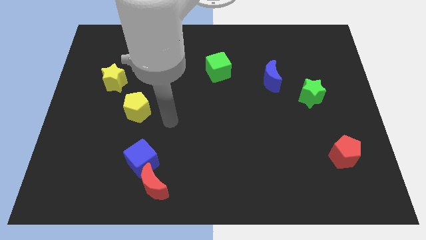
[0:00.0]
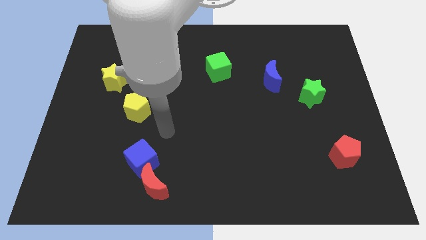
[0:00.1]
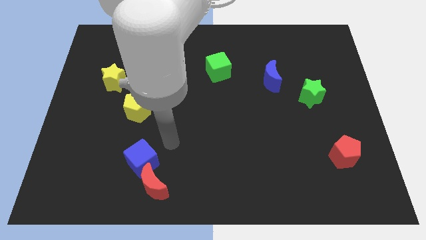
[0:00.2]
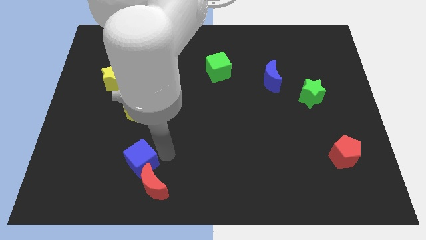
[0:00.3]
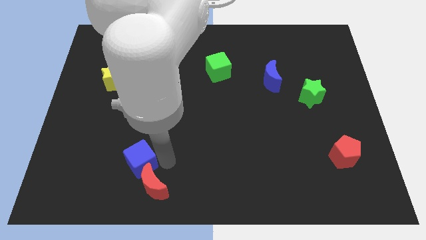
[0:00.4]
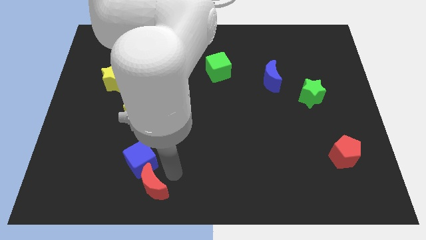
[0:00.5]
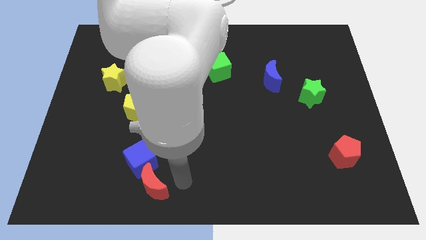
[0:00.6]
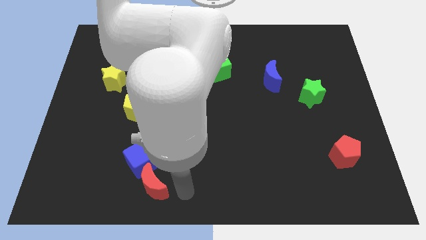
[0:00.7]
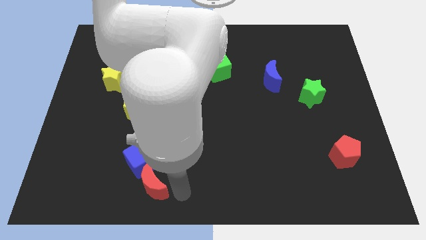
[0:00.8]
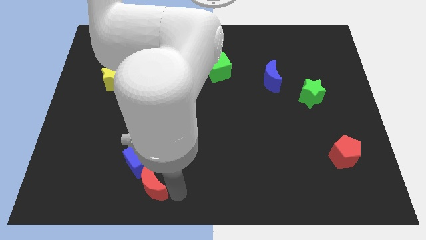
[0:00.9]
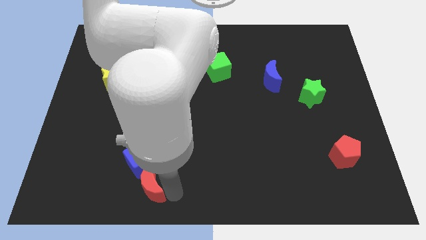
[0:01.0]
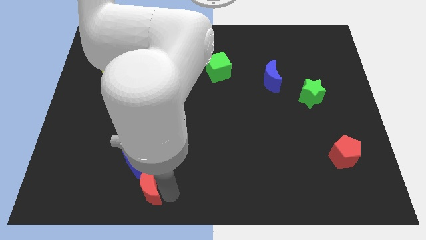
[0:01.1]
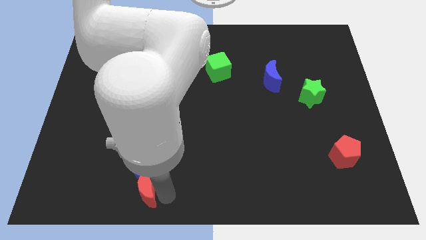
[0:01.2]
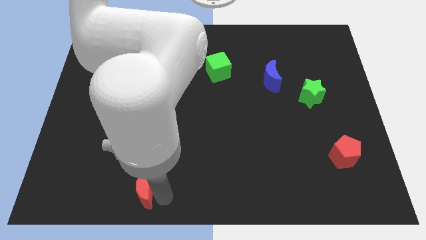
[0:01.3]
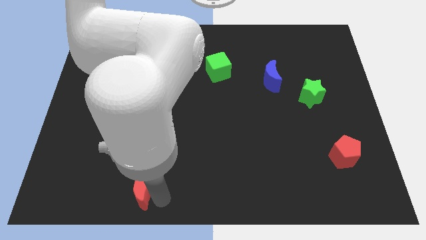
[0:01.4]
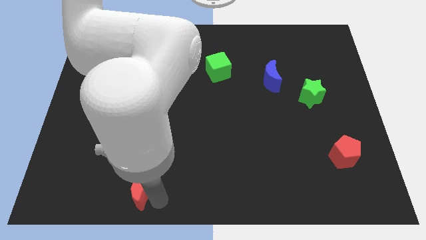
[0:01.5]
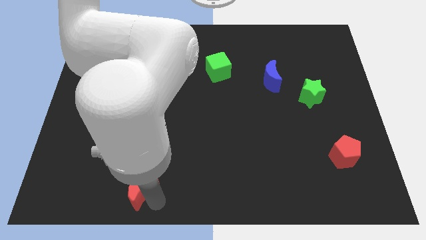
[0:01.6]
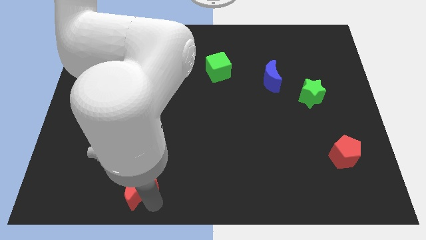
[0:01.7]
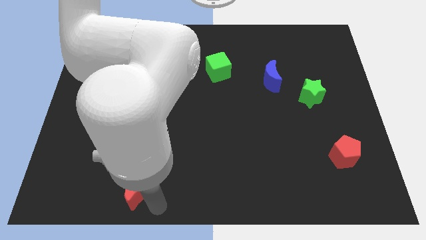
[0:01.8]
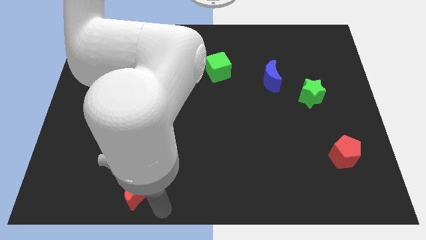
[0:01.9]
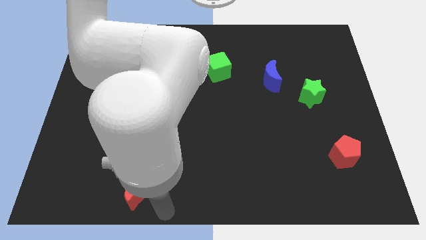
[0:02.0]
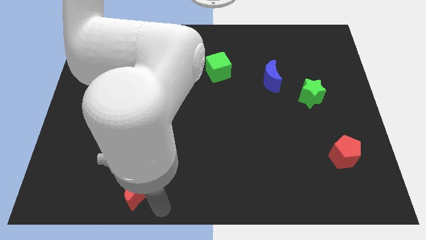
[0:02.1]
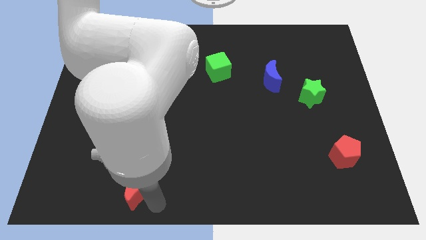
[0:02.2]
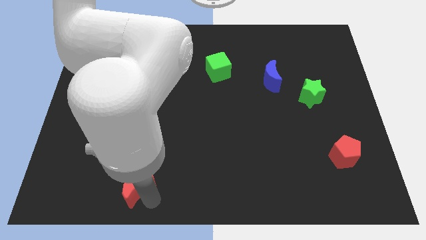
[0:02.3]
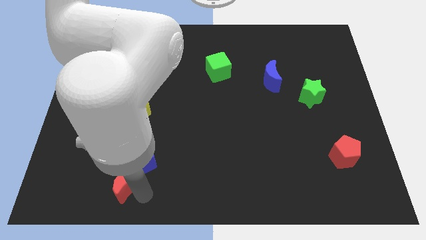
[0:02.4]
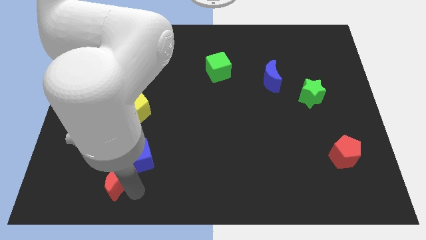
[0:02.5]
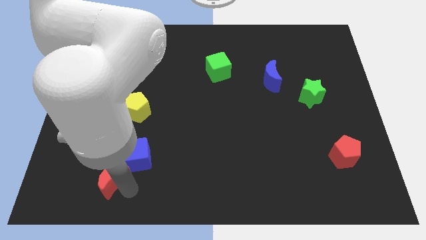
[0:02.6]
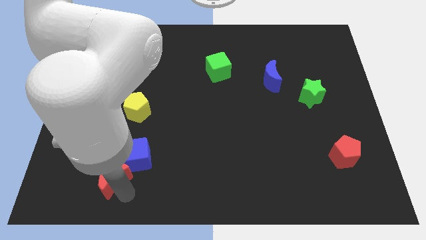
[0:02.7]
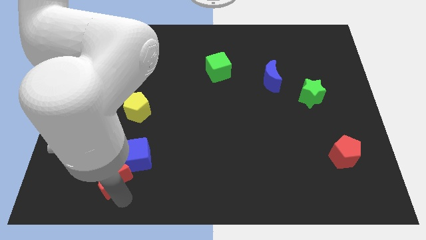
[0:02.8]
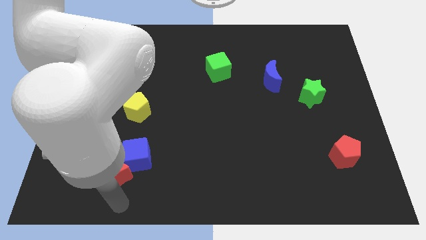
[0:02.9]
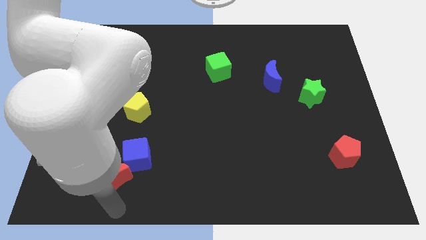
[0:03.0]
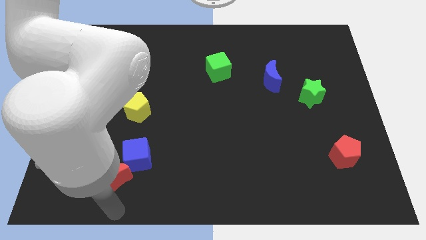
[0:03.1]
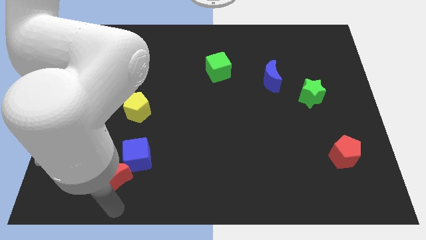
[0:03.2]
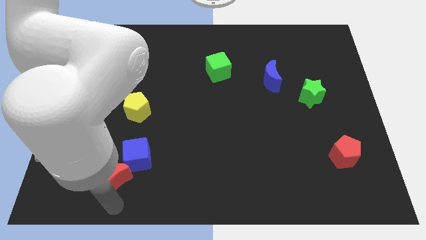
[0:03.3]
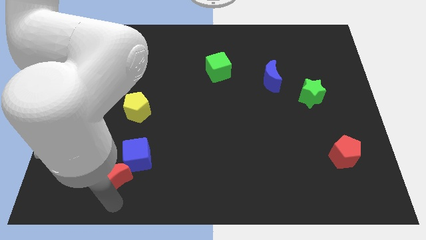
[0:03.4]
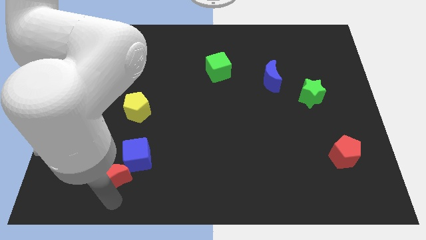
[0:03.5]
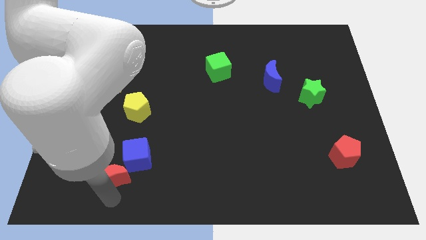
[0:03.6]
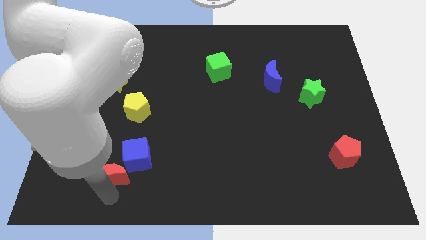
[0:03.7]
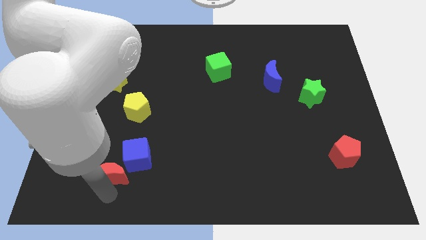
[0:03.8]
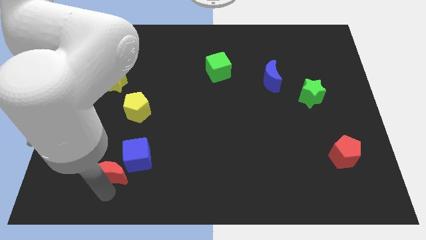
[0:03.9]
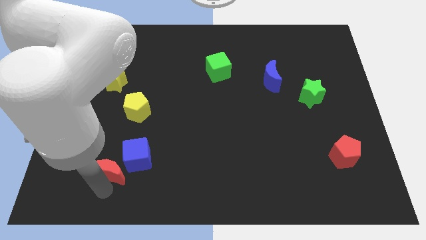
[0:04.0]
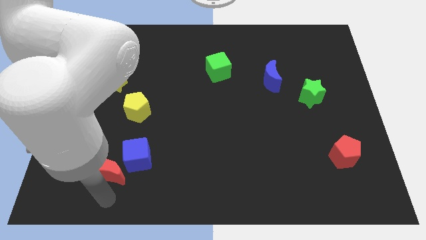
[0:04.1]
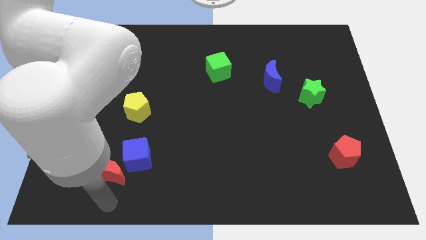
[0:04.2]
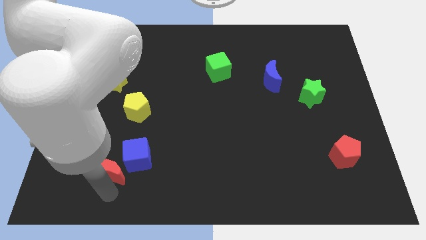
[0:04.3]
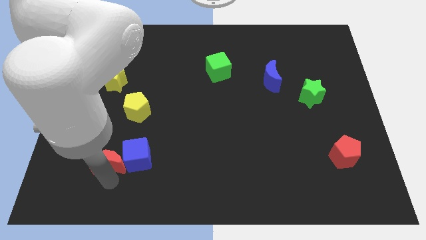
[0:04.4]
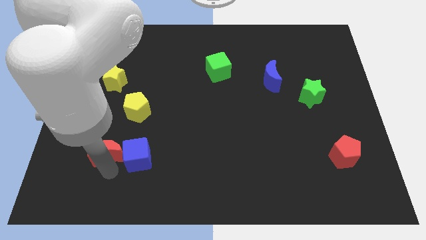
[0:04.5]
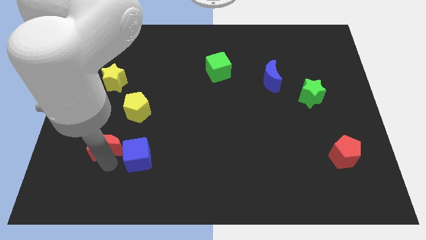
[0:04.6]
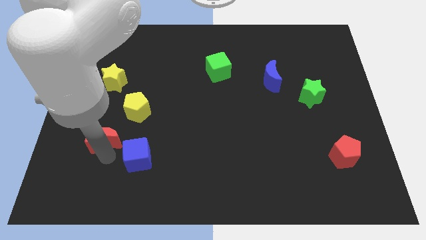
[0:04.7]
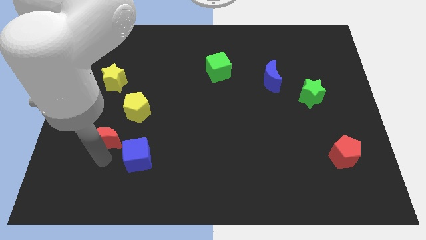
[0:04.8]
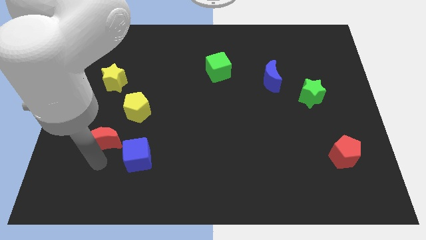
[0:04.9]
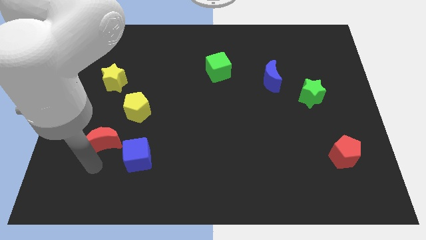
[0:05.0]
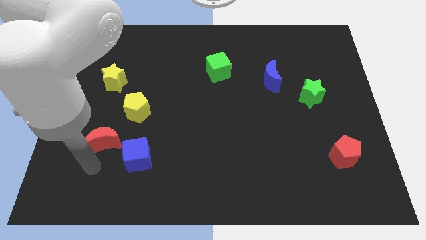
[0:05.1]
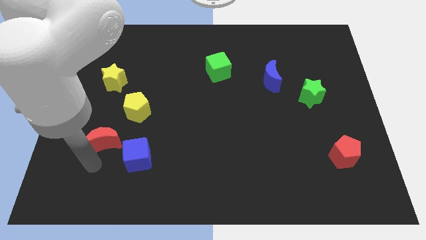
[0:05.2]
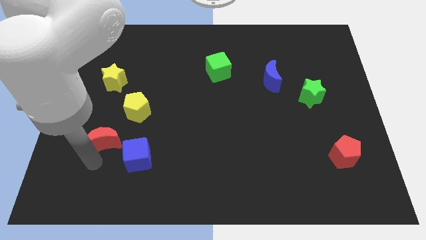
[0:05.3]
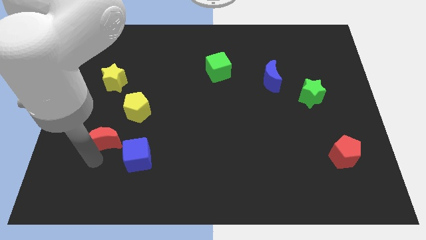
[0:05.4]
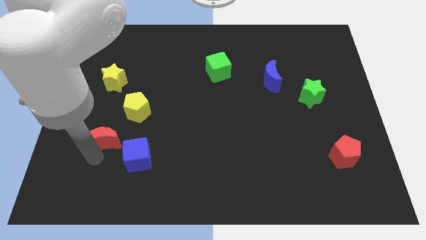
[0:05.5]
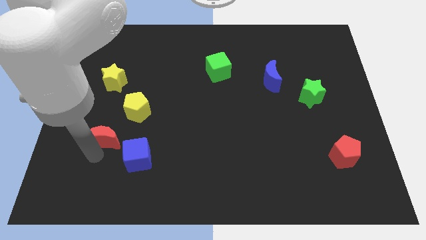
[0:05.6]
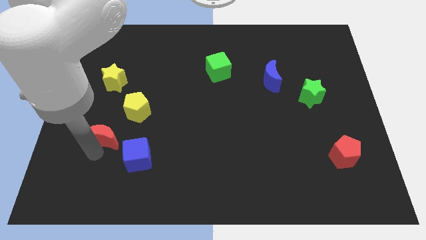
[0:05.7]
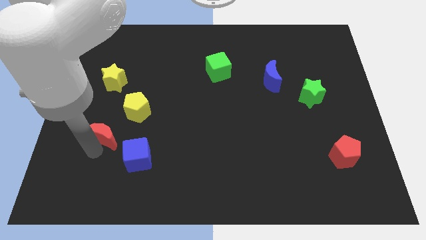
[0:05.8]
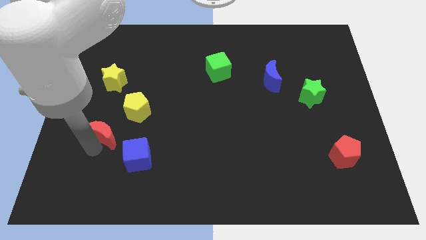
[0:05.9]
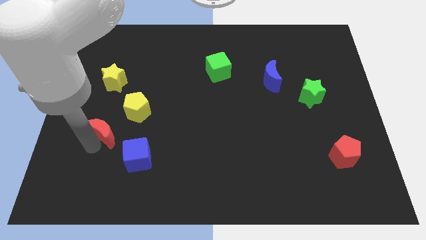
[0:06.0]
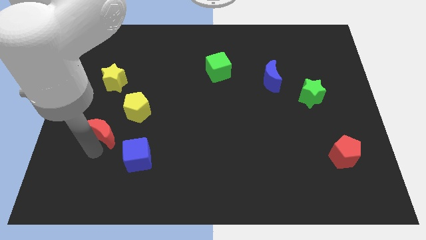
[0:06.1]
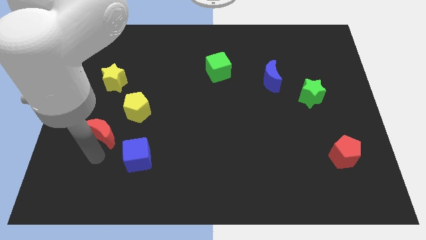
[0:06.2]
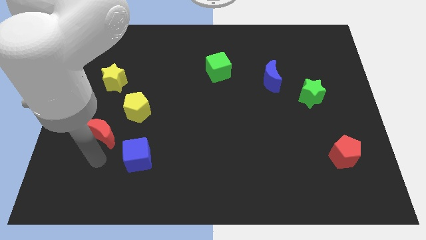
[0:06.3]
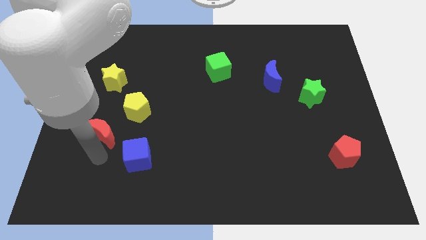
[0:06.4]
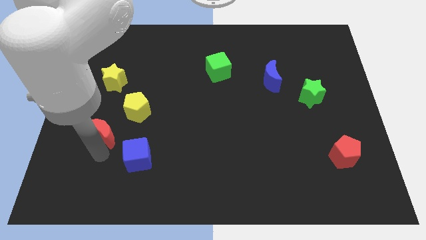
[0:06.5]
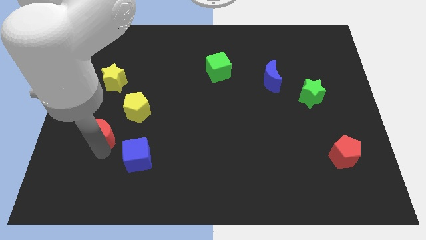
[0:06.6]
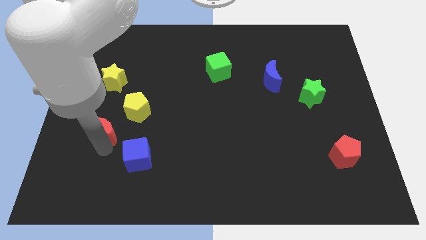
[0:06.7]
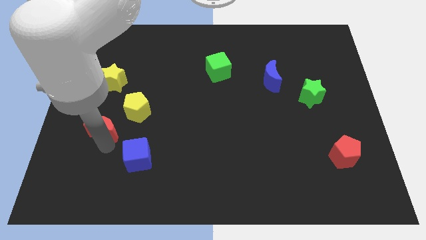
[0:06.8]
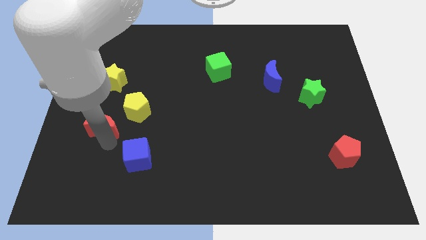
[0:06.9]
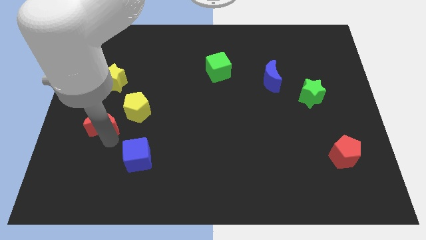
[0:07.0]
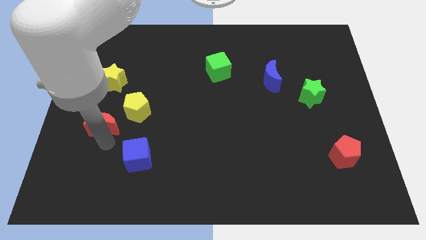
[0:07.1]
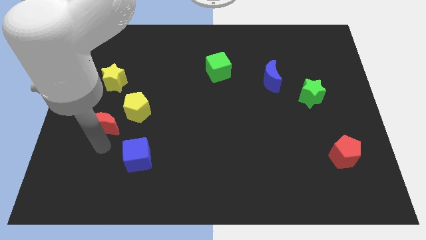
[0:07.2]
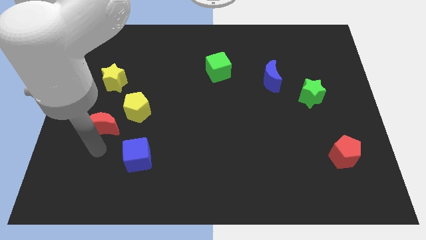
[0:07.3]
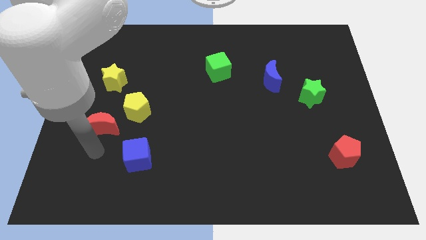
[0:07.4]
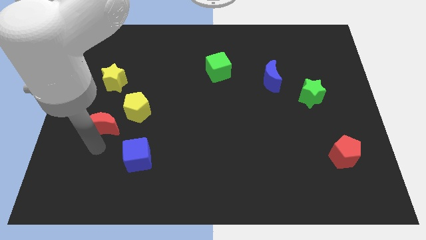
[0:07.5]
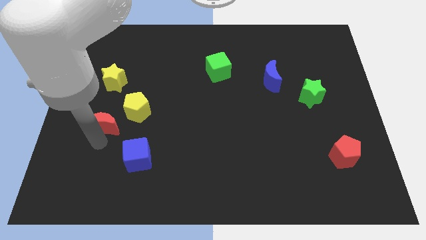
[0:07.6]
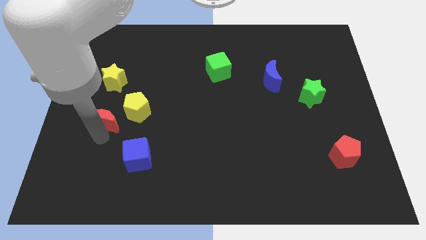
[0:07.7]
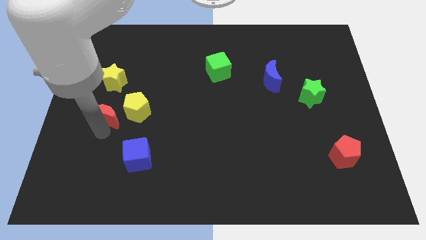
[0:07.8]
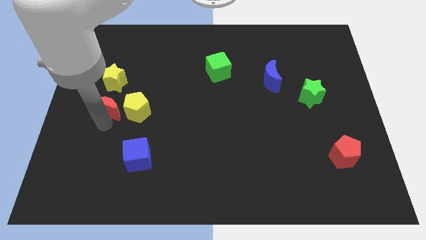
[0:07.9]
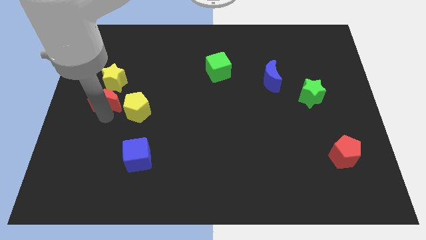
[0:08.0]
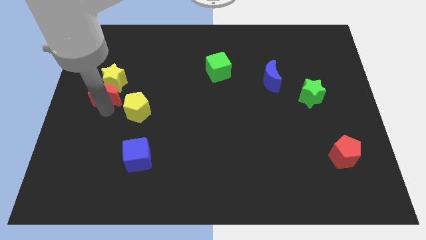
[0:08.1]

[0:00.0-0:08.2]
push the red moon close to the yellow star
